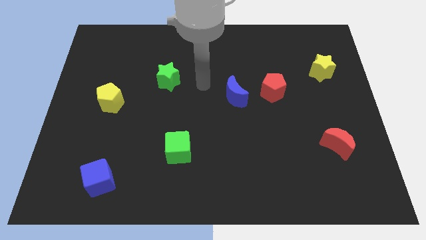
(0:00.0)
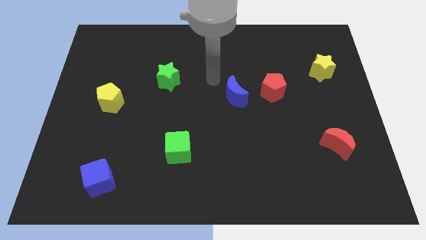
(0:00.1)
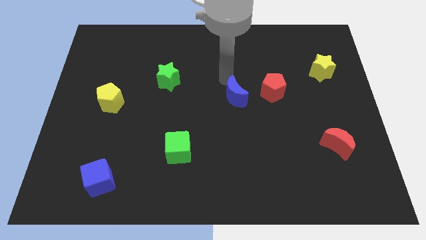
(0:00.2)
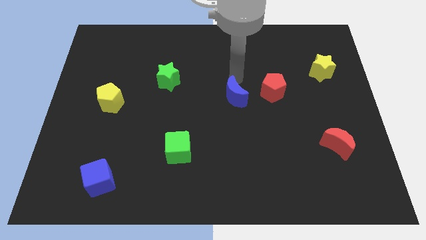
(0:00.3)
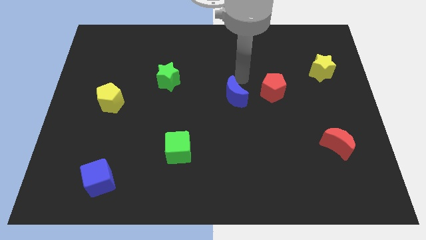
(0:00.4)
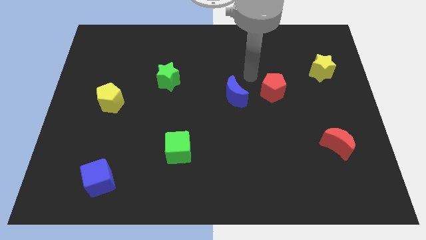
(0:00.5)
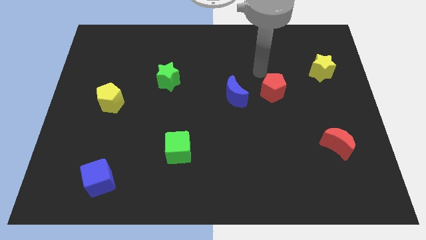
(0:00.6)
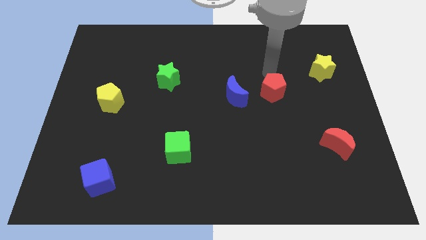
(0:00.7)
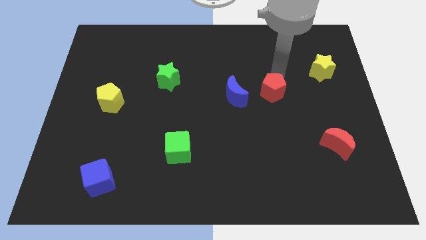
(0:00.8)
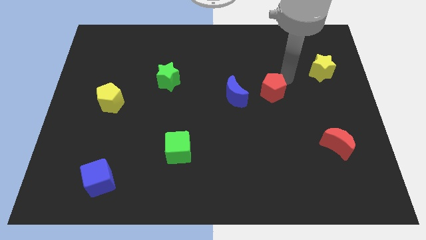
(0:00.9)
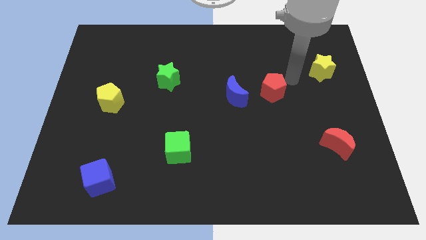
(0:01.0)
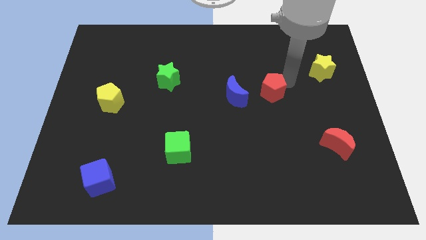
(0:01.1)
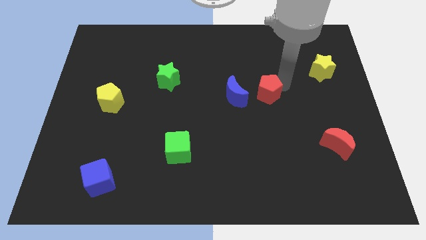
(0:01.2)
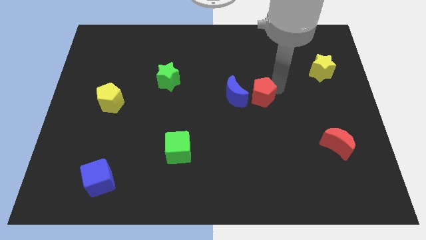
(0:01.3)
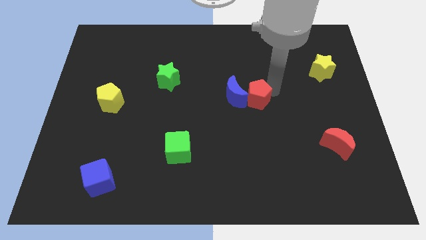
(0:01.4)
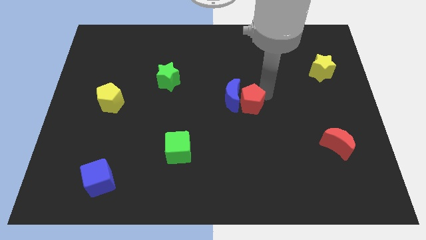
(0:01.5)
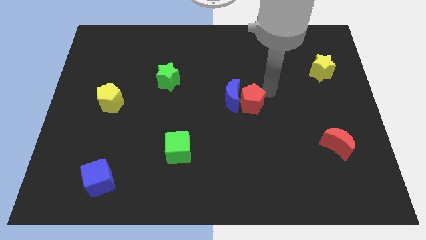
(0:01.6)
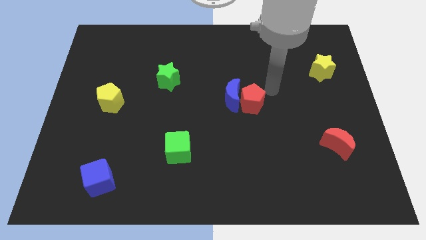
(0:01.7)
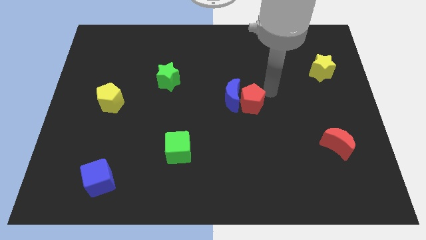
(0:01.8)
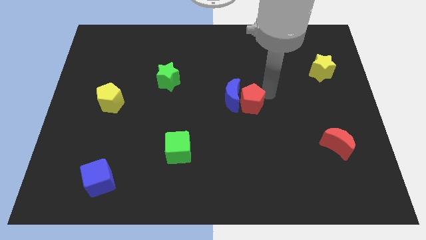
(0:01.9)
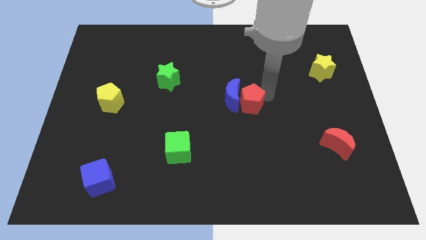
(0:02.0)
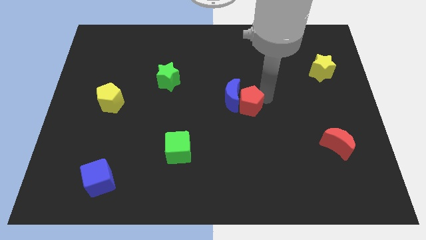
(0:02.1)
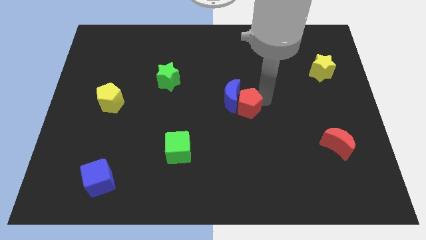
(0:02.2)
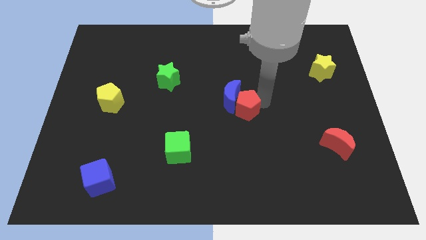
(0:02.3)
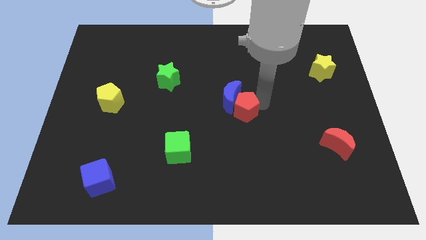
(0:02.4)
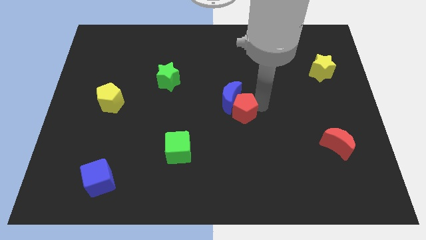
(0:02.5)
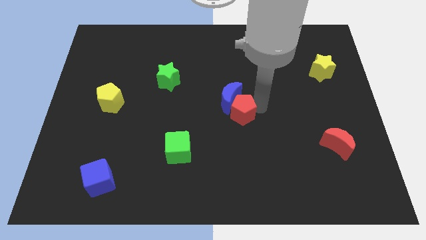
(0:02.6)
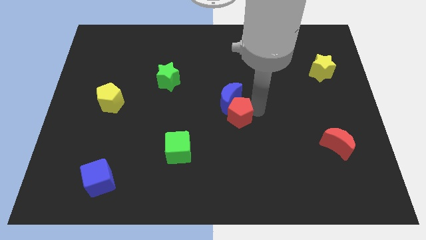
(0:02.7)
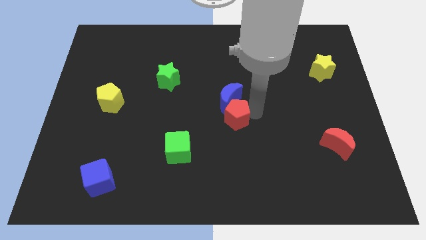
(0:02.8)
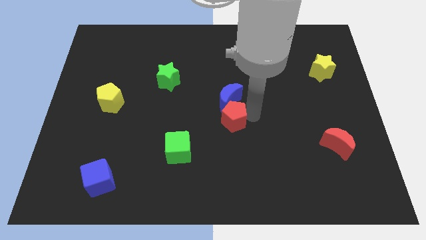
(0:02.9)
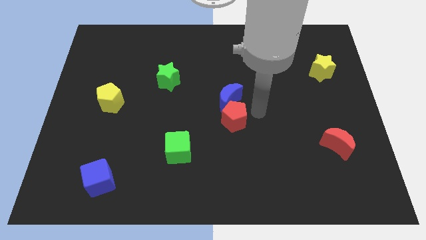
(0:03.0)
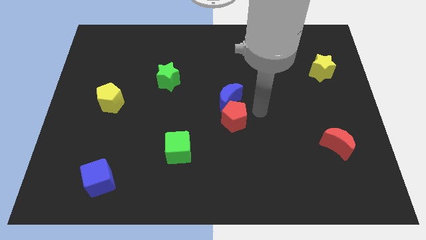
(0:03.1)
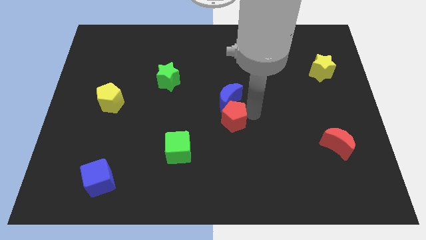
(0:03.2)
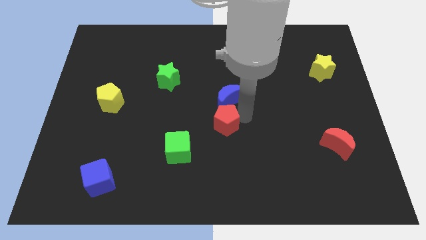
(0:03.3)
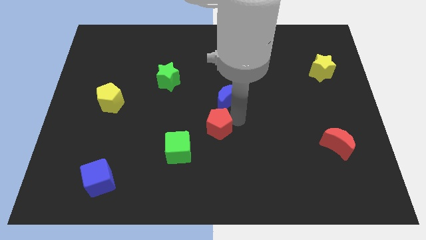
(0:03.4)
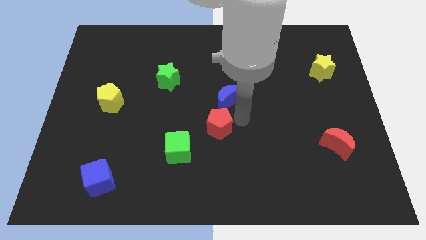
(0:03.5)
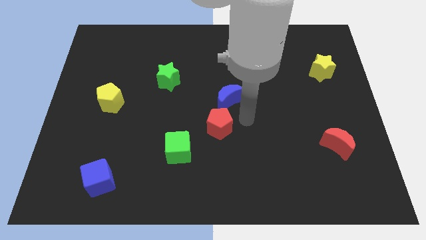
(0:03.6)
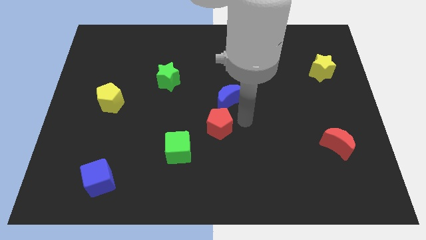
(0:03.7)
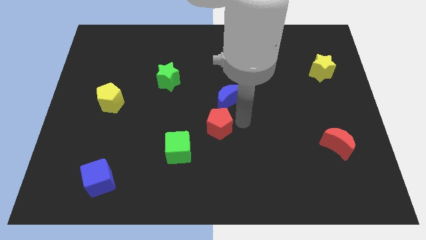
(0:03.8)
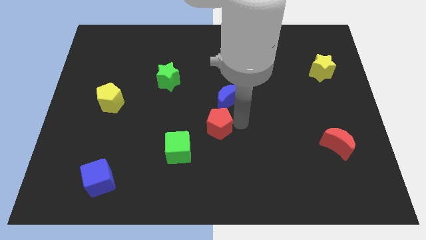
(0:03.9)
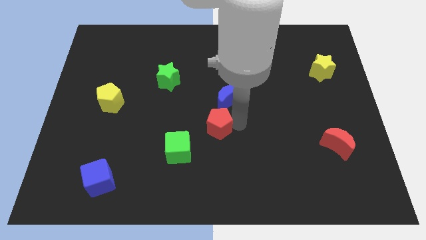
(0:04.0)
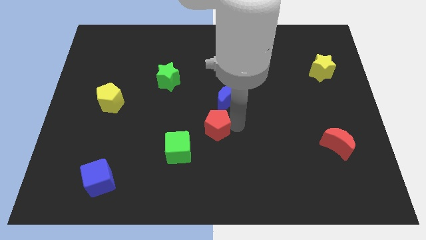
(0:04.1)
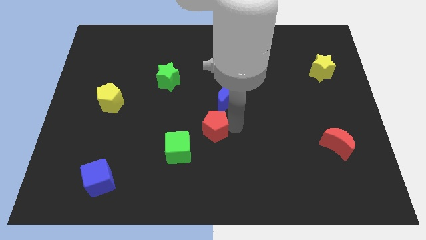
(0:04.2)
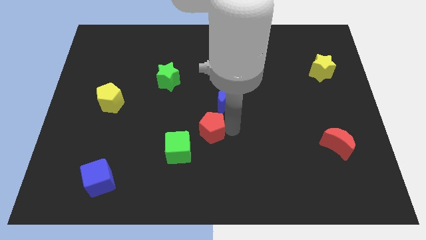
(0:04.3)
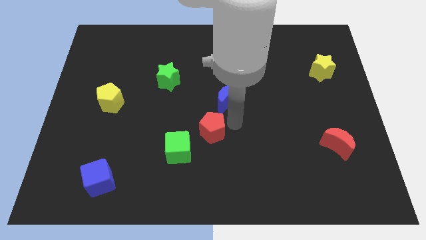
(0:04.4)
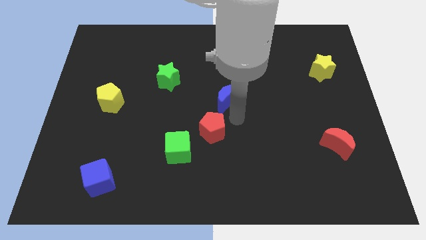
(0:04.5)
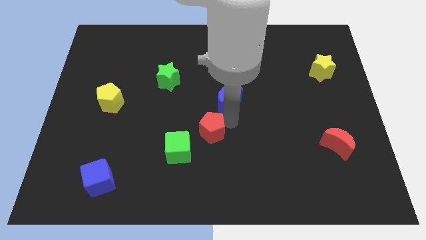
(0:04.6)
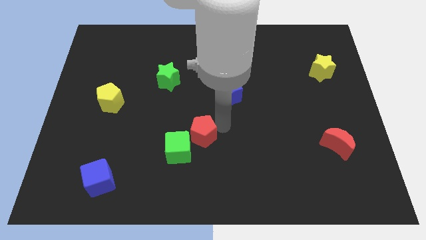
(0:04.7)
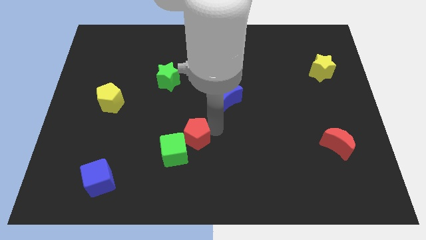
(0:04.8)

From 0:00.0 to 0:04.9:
put the red pentagon next to the green cube

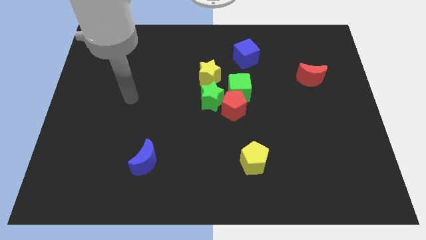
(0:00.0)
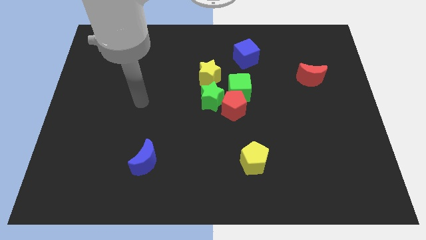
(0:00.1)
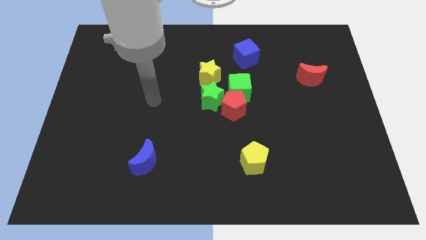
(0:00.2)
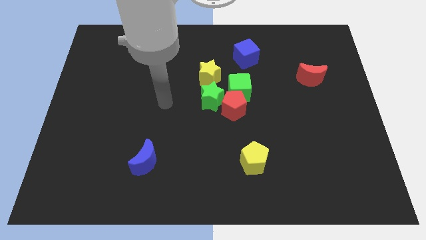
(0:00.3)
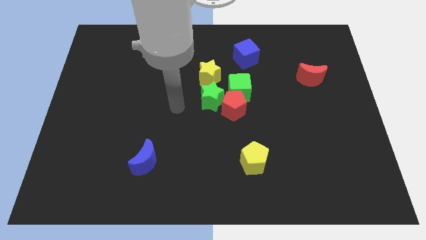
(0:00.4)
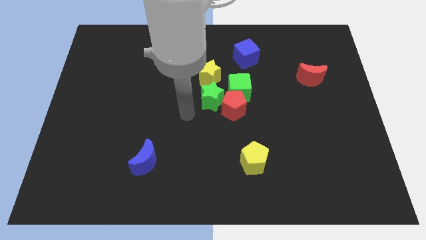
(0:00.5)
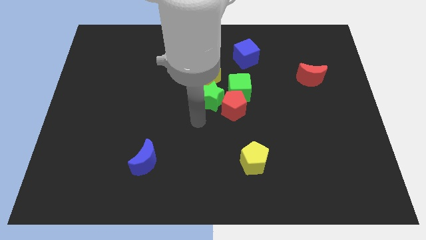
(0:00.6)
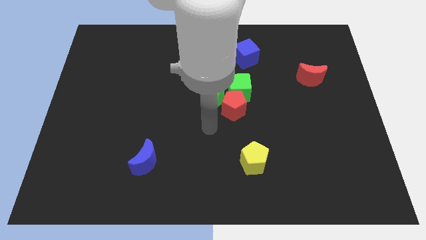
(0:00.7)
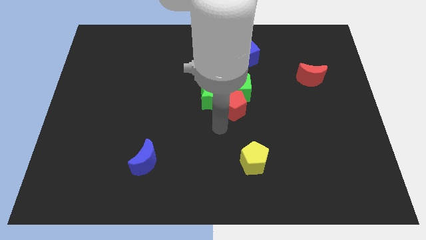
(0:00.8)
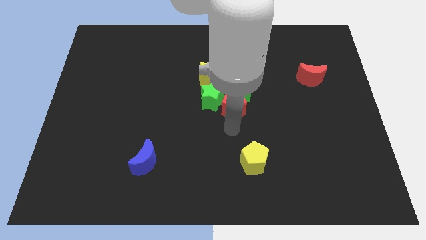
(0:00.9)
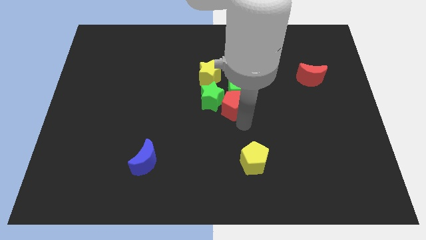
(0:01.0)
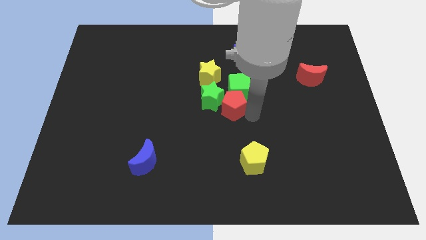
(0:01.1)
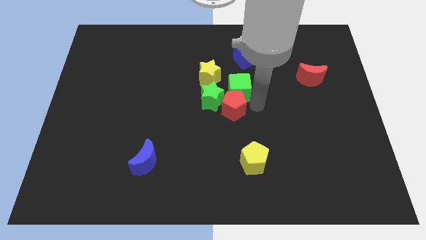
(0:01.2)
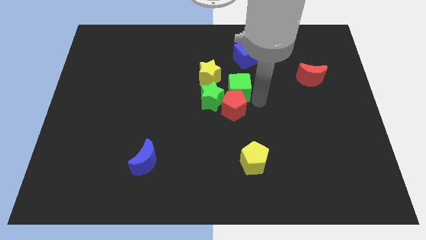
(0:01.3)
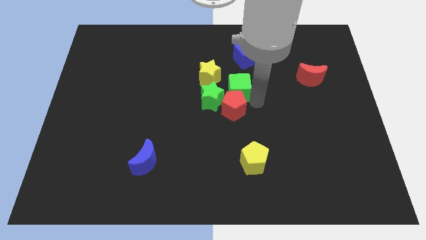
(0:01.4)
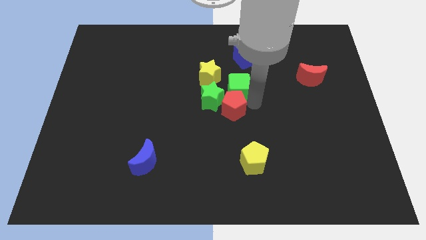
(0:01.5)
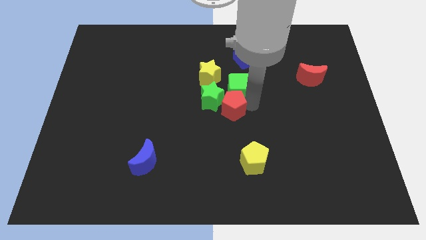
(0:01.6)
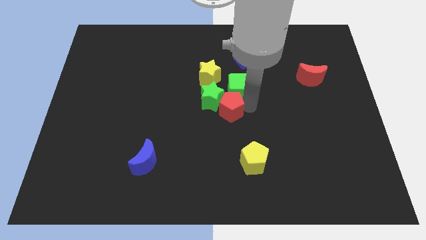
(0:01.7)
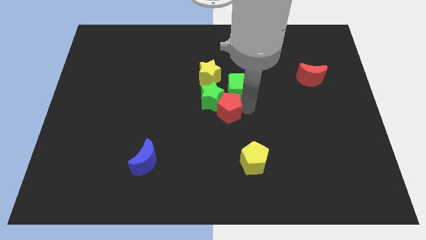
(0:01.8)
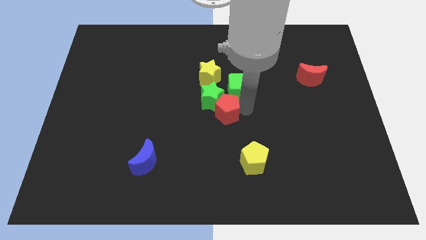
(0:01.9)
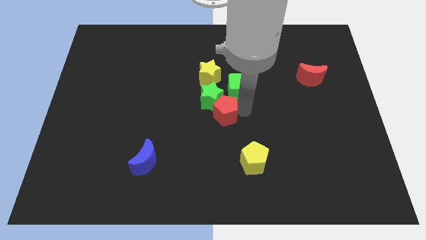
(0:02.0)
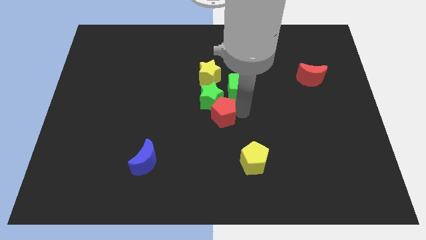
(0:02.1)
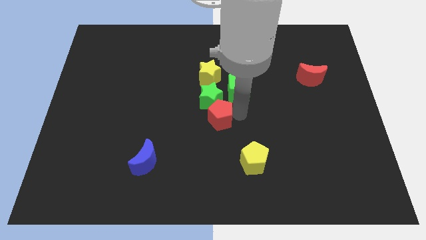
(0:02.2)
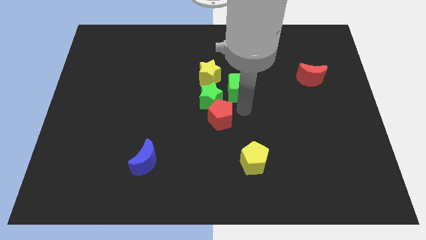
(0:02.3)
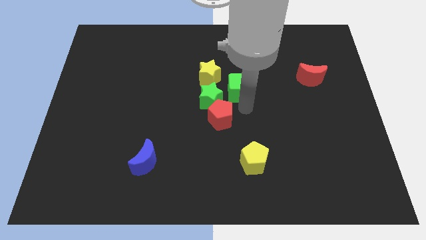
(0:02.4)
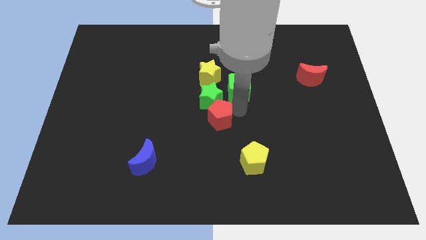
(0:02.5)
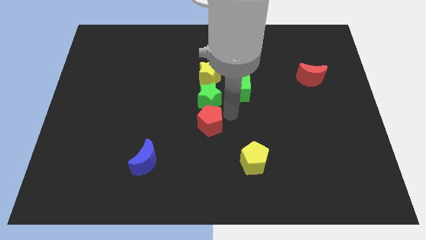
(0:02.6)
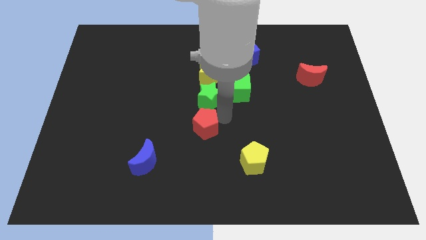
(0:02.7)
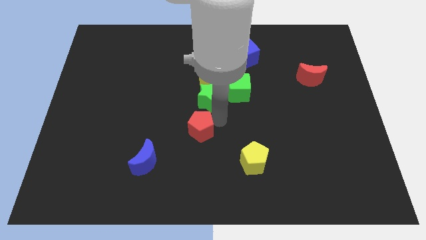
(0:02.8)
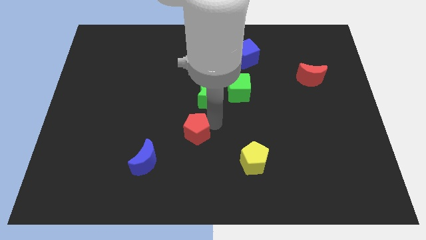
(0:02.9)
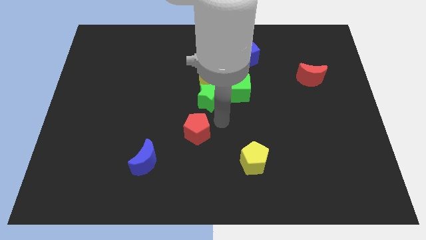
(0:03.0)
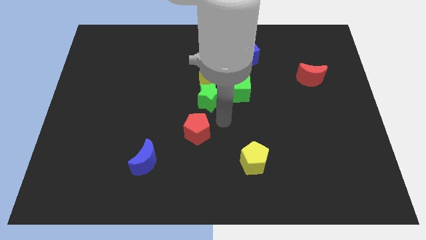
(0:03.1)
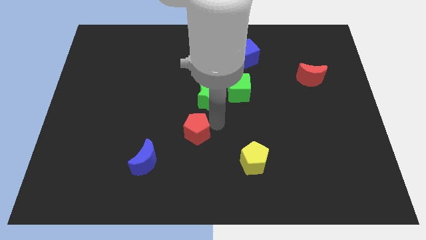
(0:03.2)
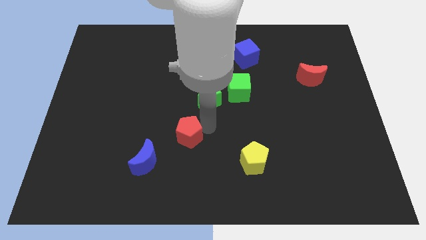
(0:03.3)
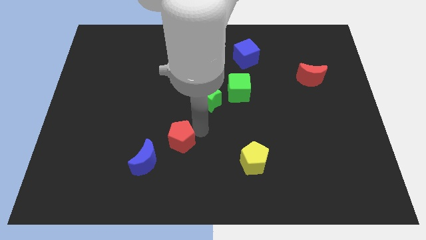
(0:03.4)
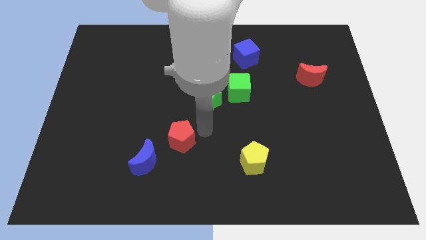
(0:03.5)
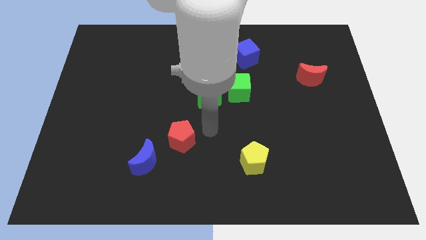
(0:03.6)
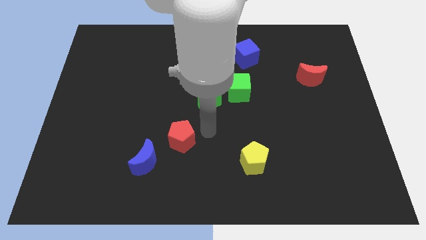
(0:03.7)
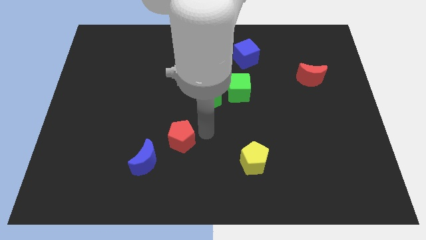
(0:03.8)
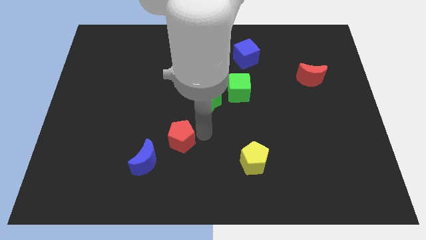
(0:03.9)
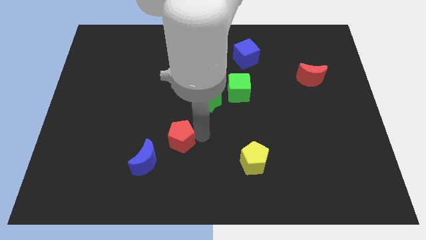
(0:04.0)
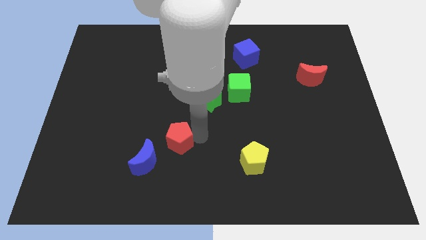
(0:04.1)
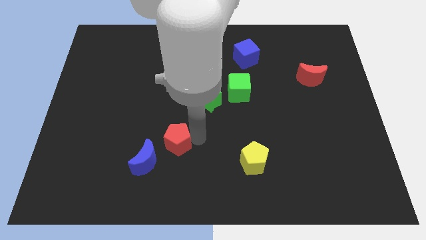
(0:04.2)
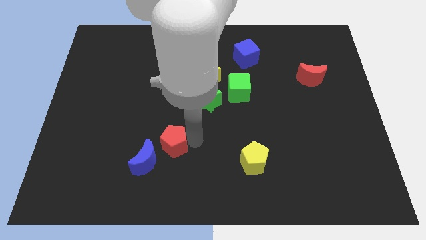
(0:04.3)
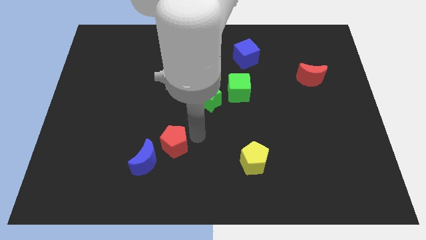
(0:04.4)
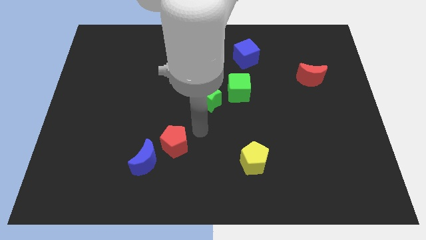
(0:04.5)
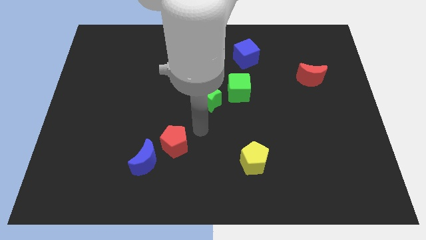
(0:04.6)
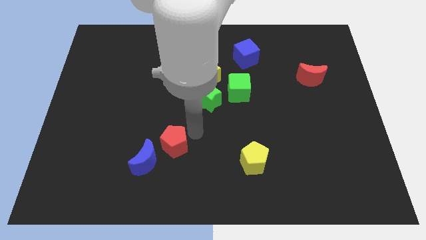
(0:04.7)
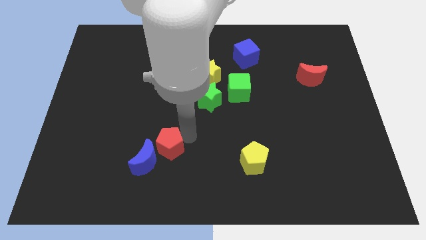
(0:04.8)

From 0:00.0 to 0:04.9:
move the red pentagon to the blue moon
